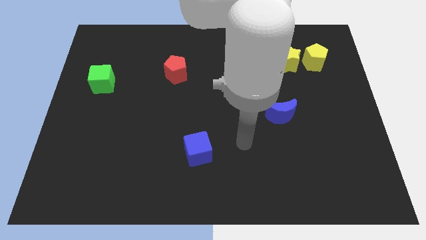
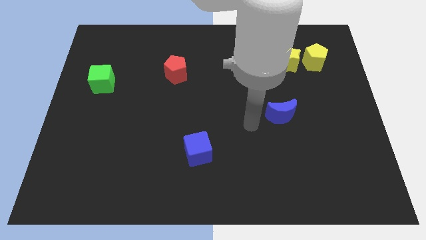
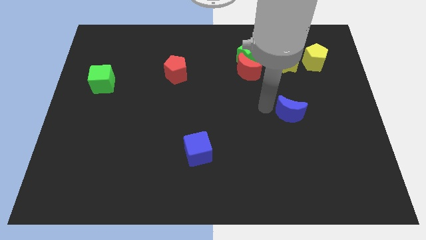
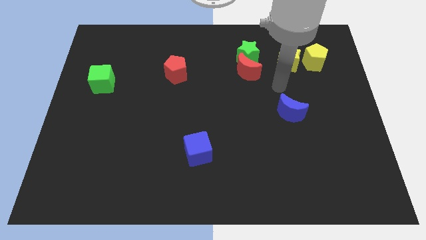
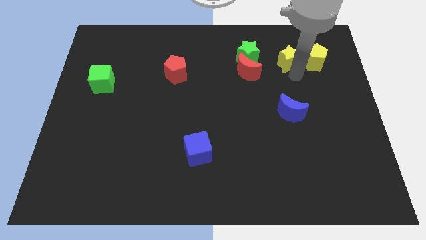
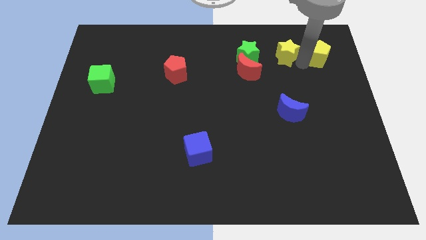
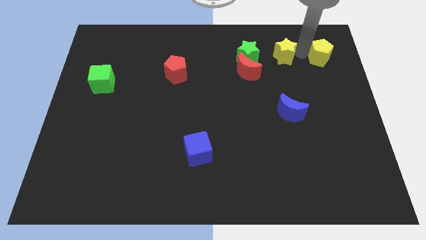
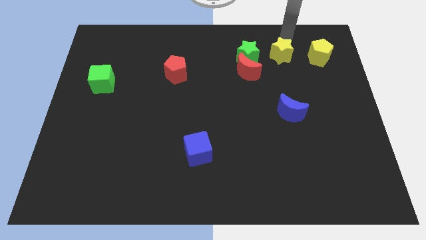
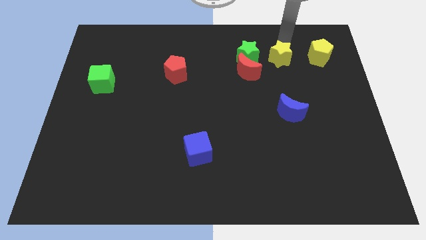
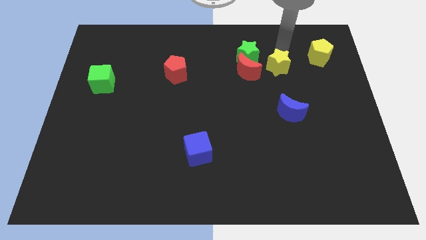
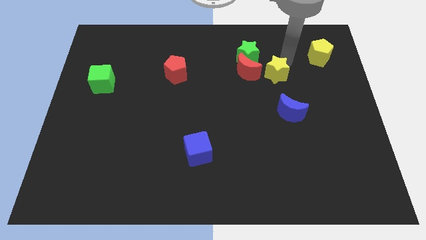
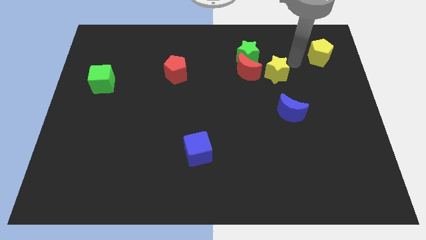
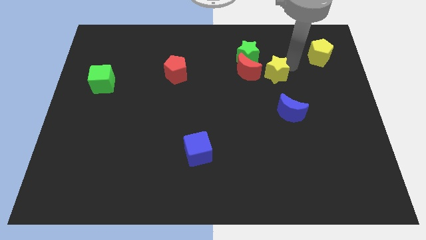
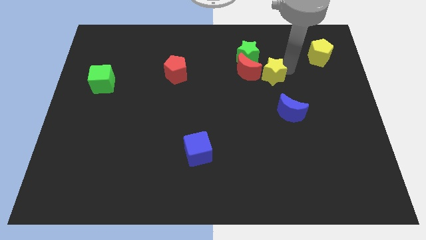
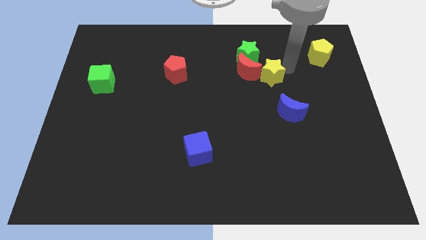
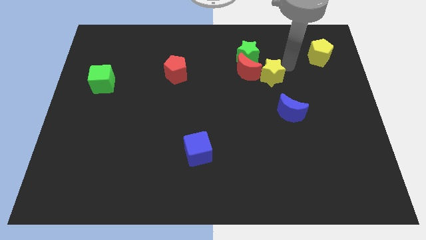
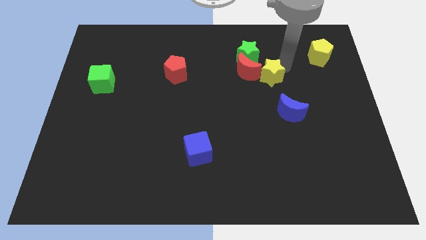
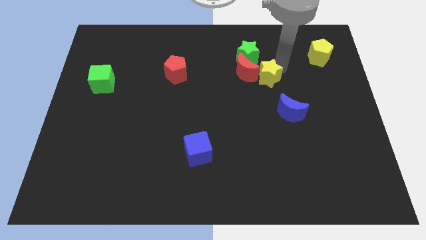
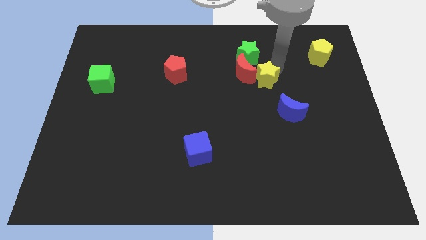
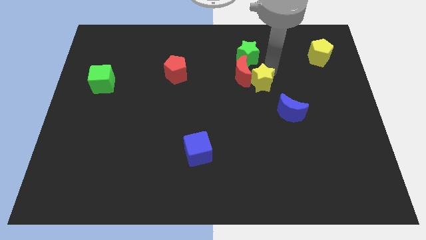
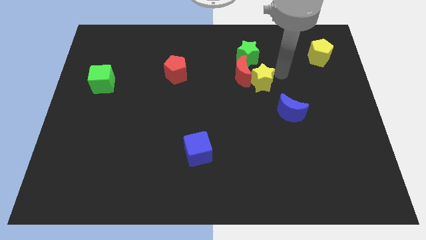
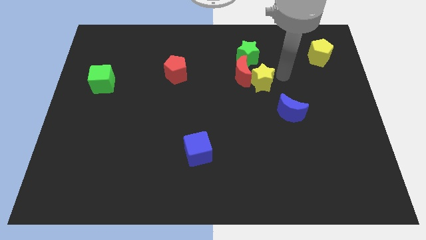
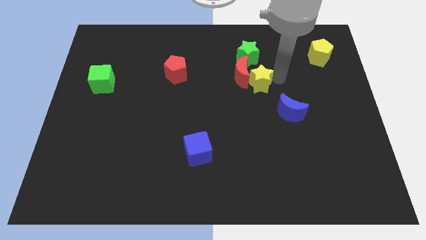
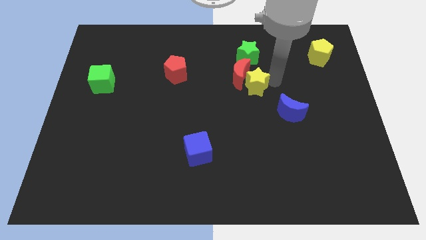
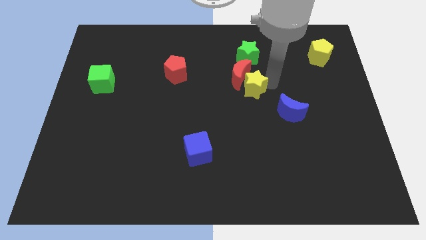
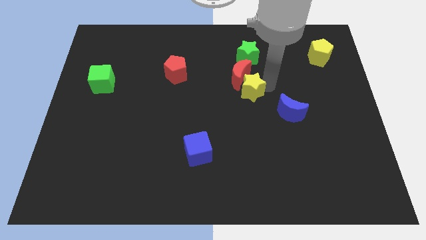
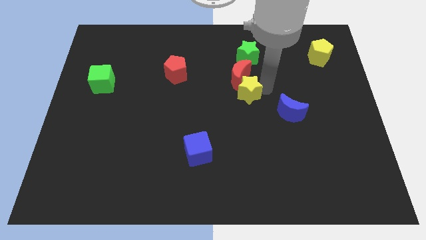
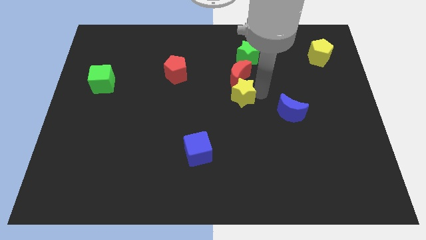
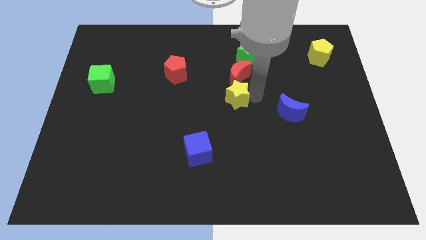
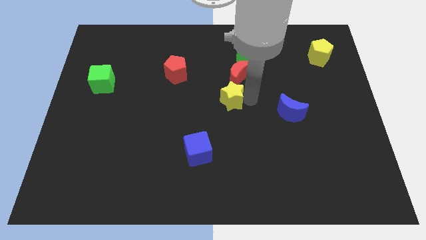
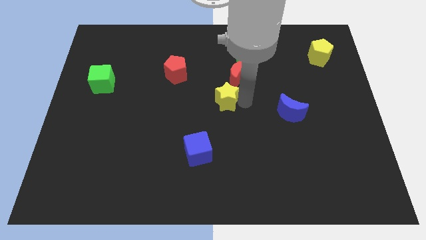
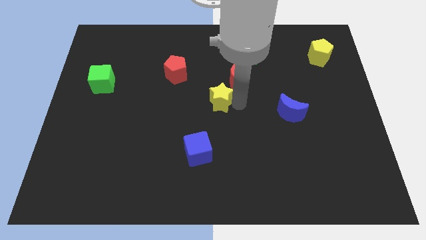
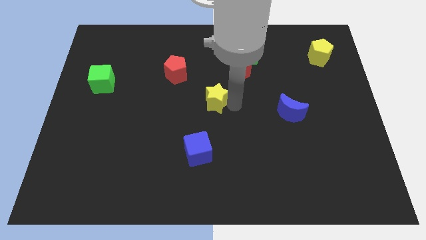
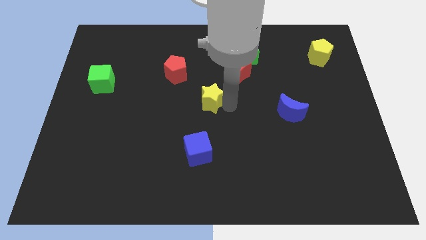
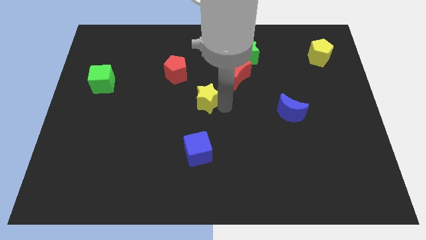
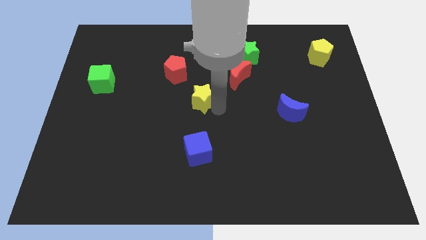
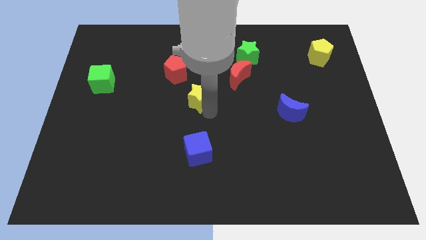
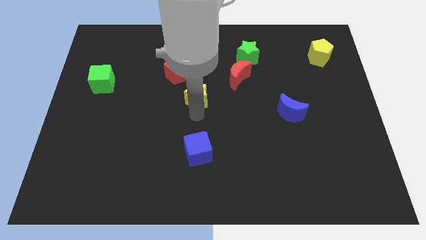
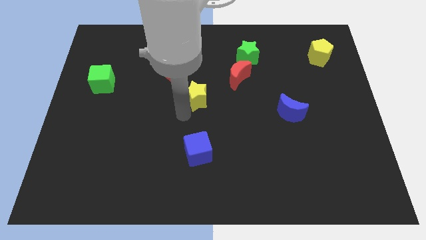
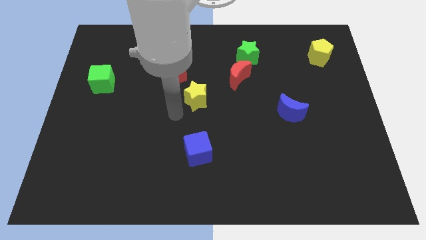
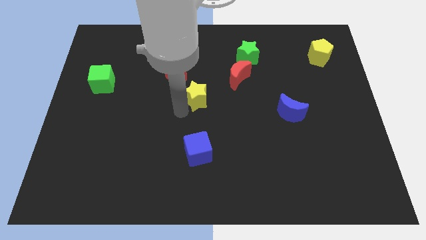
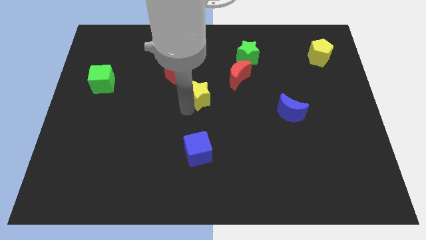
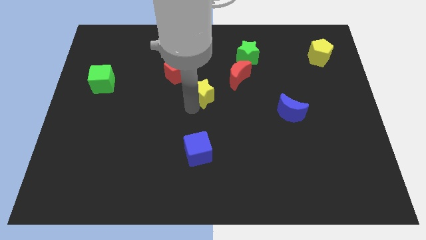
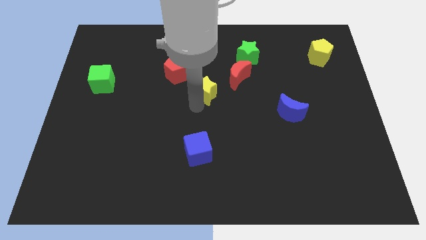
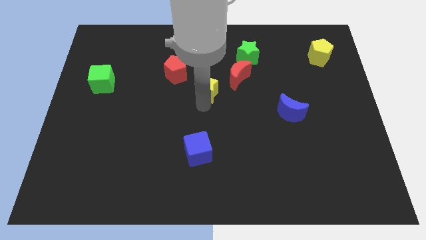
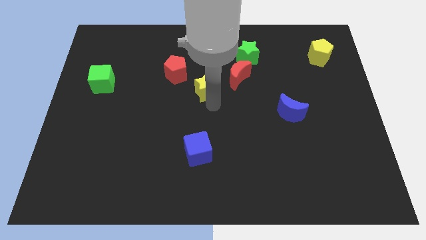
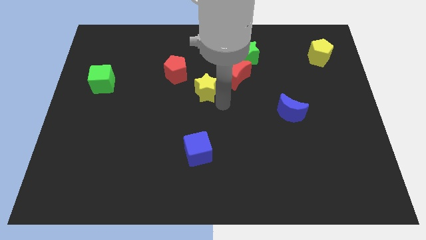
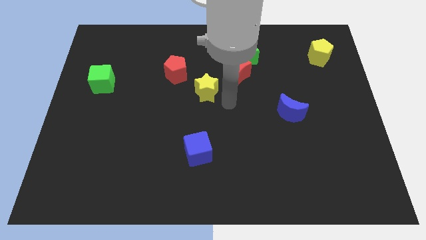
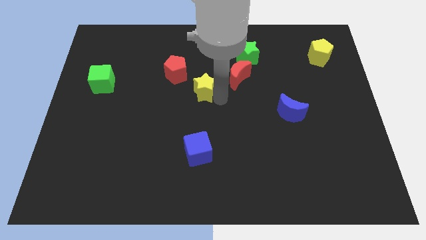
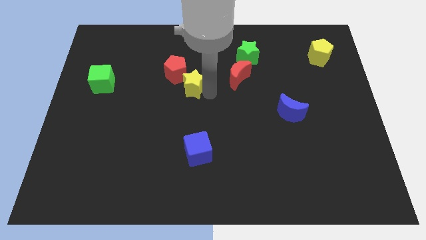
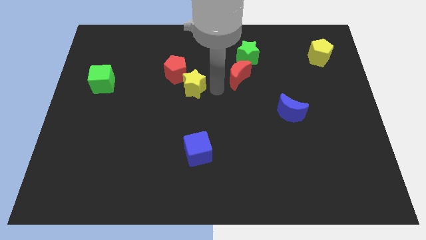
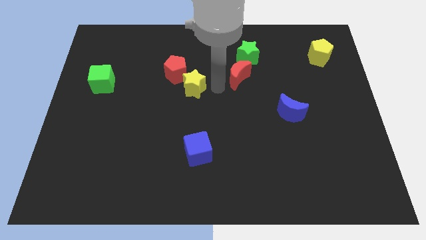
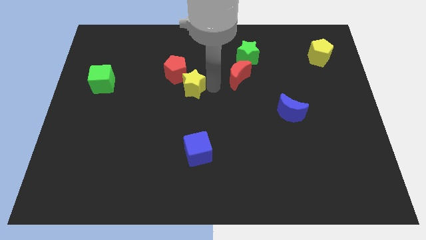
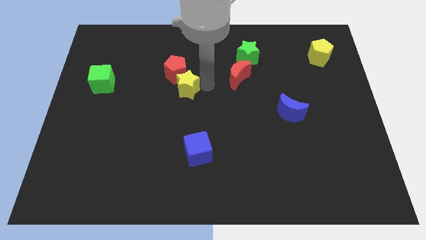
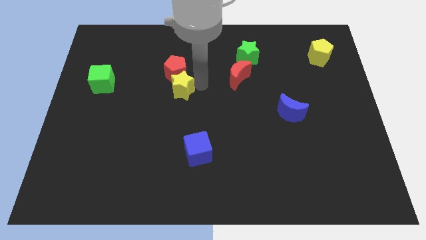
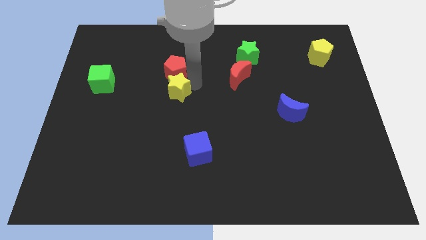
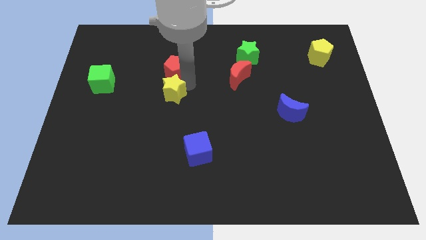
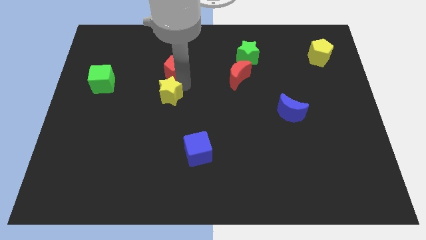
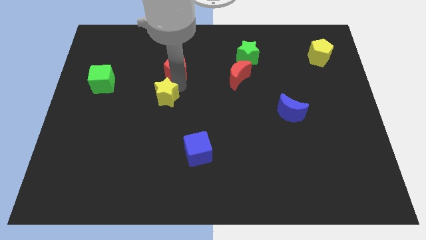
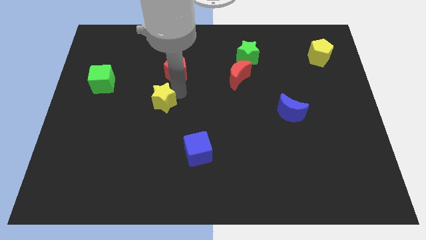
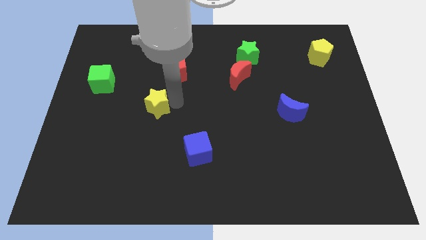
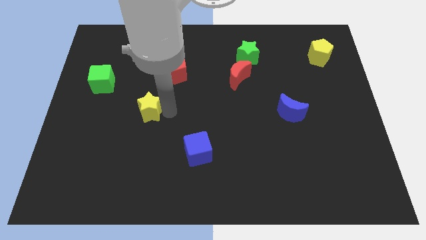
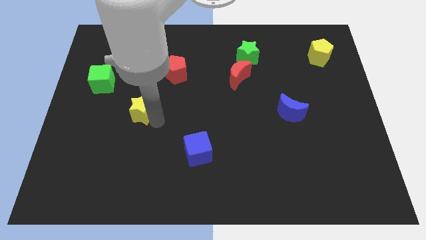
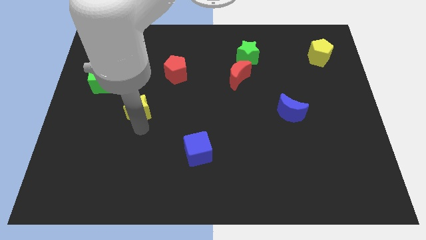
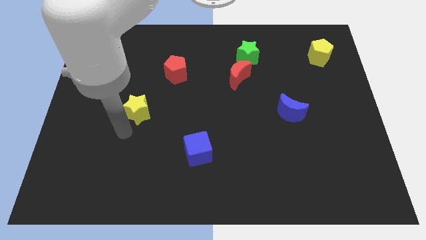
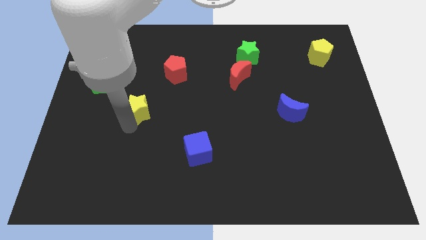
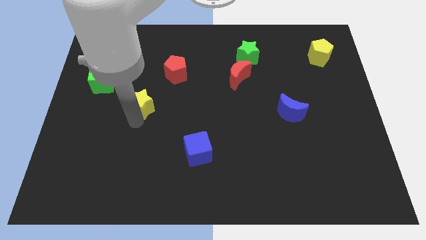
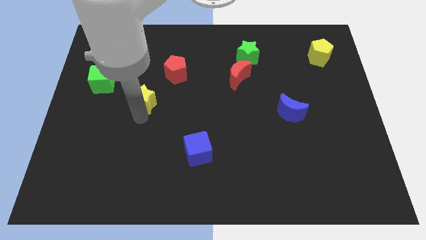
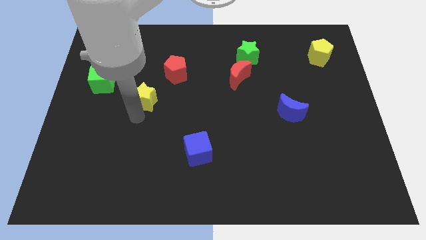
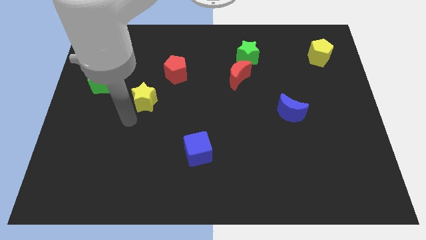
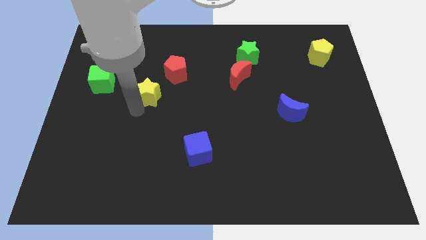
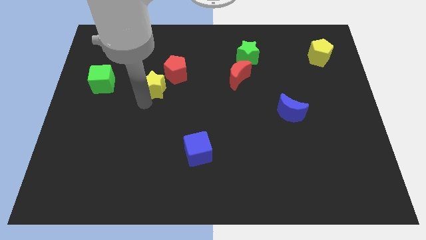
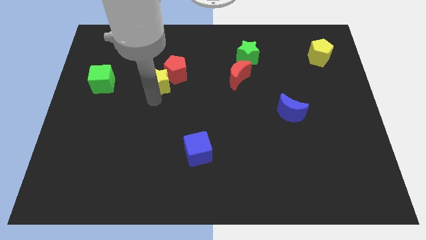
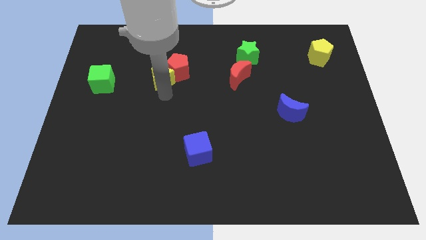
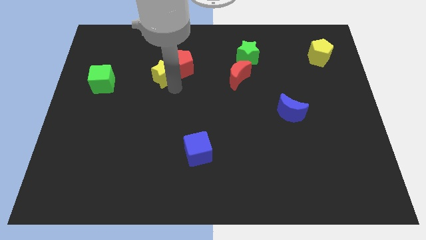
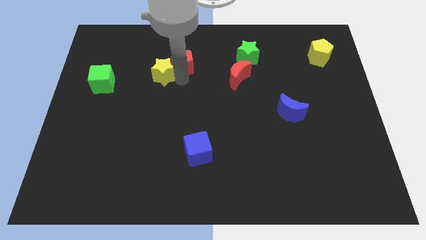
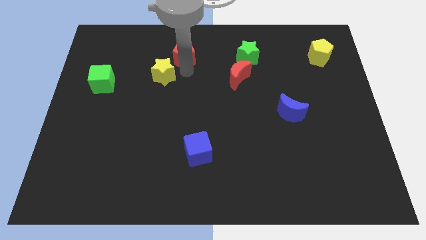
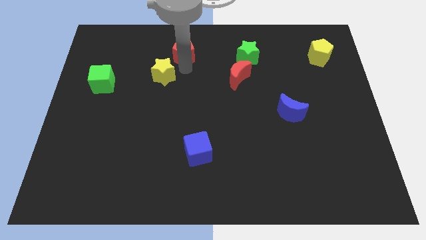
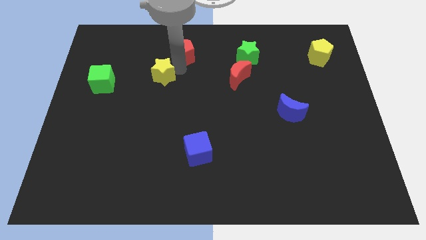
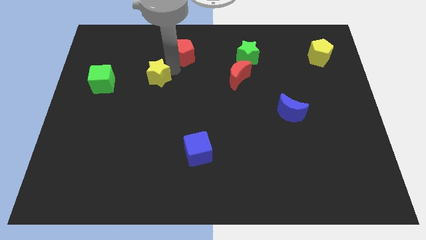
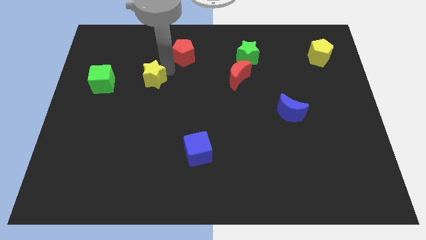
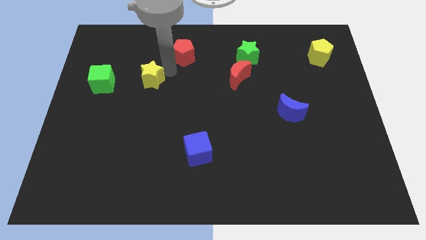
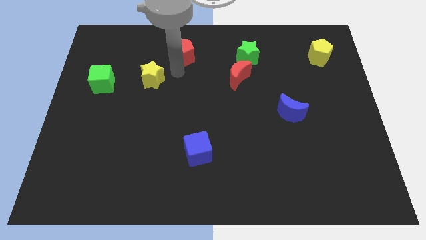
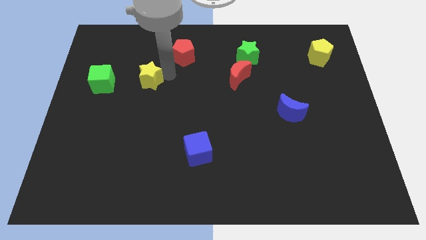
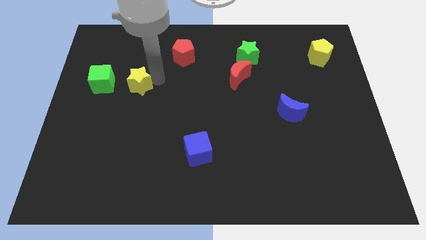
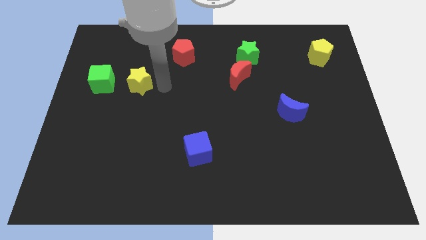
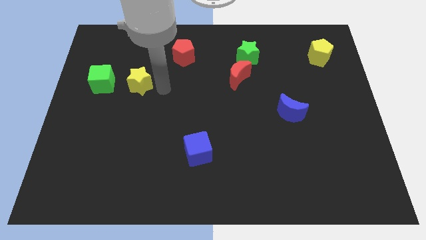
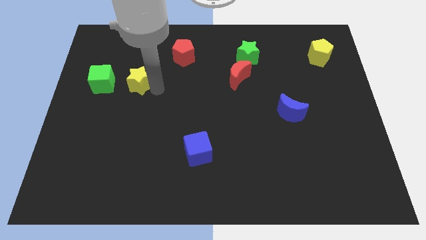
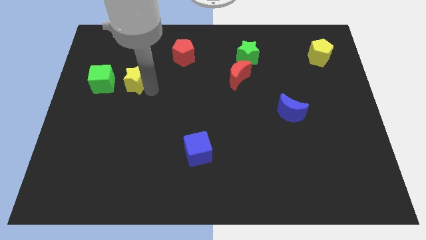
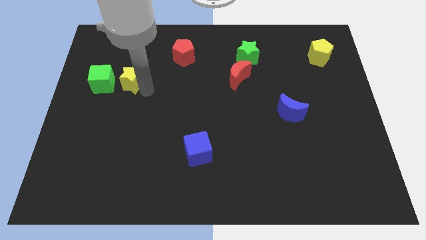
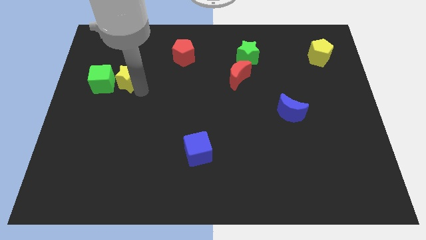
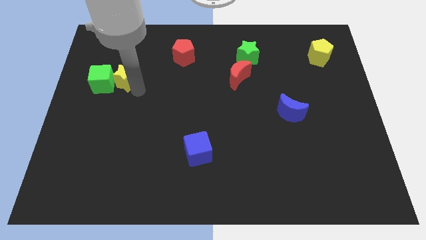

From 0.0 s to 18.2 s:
push the yellow star to the green cube
